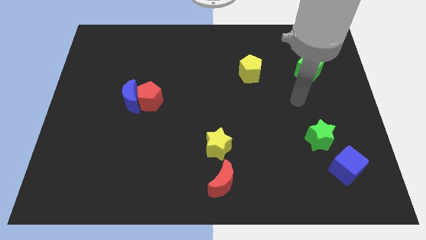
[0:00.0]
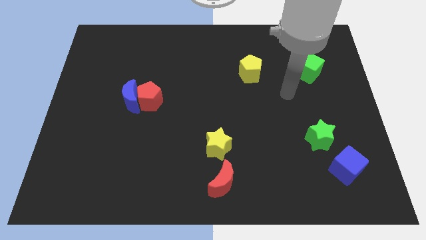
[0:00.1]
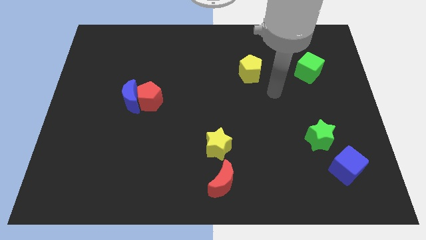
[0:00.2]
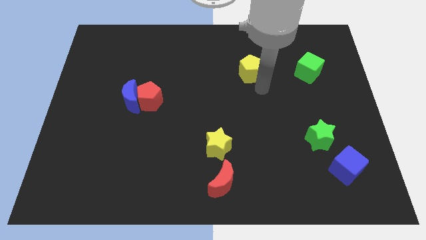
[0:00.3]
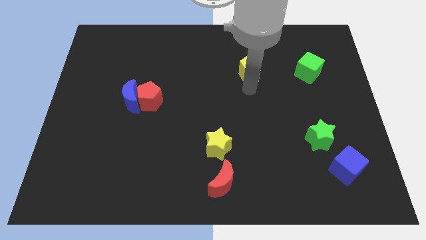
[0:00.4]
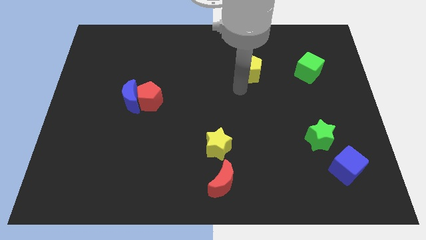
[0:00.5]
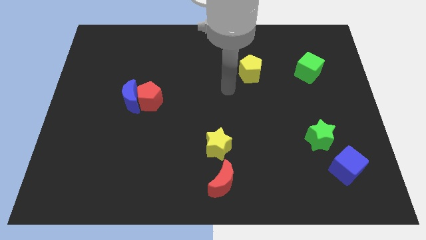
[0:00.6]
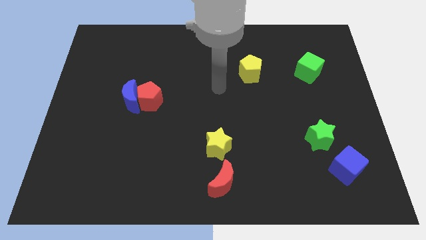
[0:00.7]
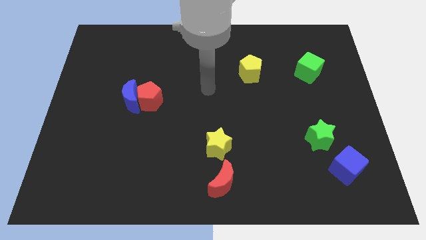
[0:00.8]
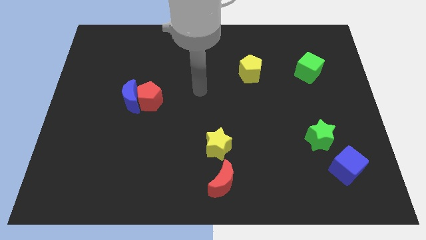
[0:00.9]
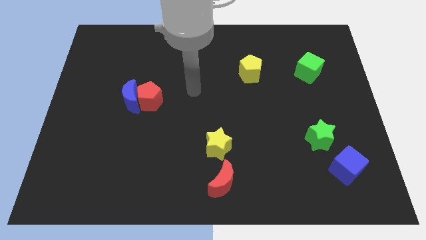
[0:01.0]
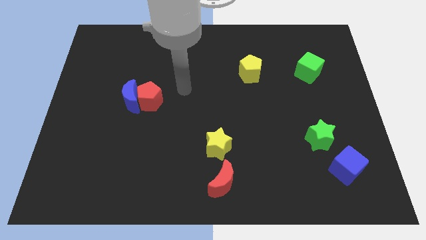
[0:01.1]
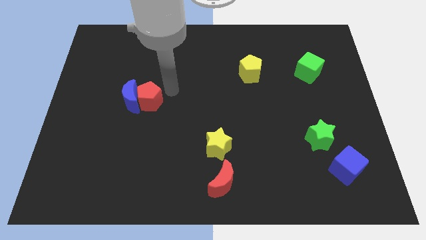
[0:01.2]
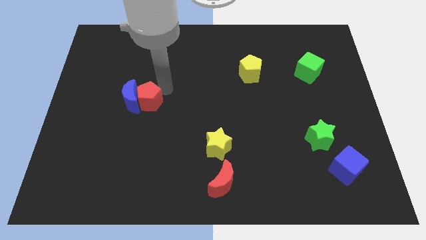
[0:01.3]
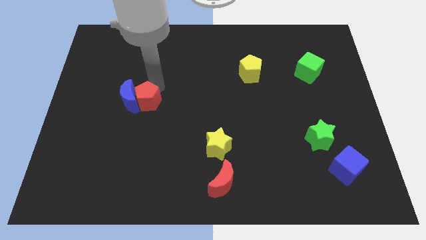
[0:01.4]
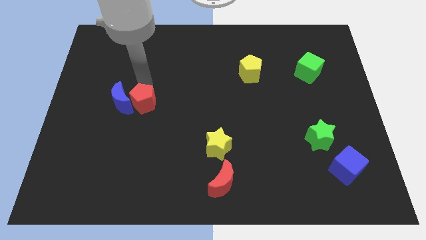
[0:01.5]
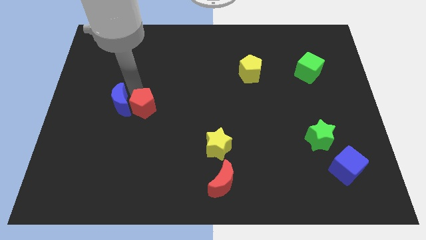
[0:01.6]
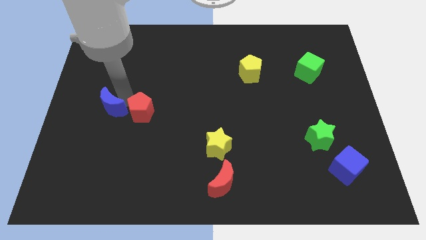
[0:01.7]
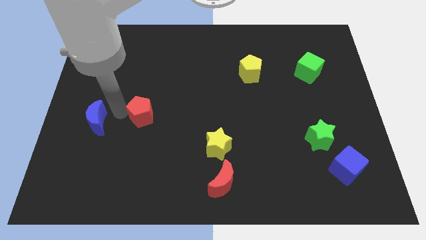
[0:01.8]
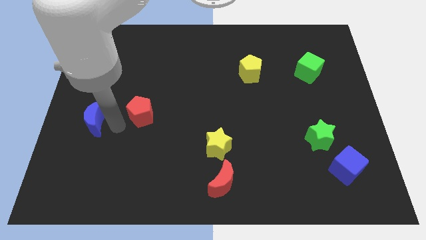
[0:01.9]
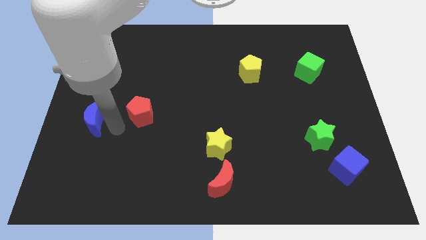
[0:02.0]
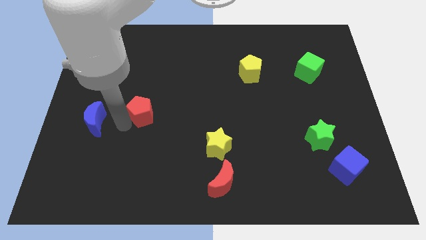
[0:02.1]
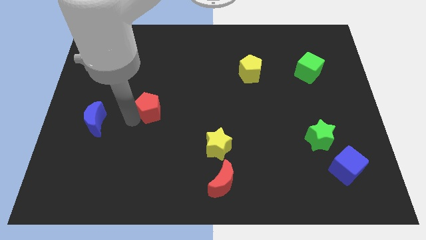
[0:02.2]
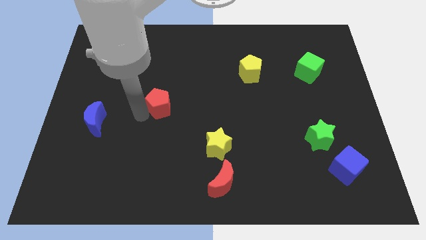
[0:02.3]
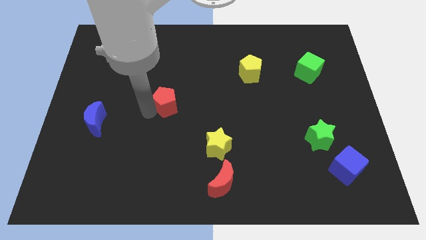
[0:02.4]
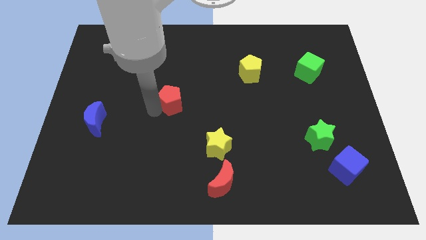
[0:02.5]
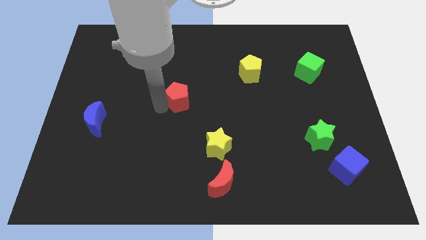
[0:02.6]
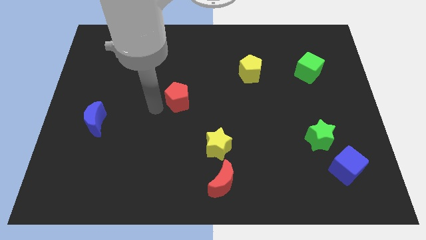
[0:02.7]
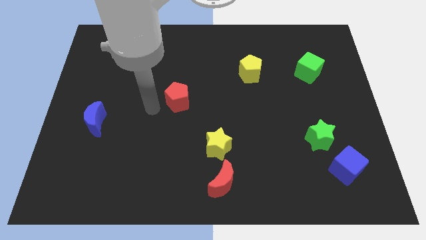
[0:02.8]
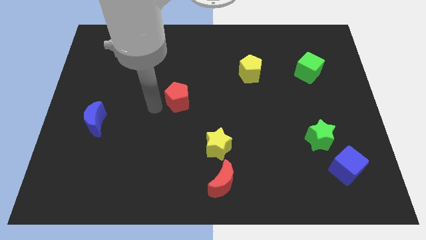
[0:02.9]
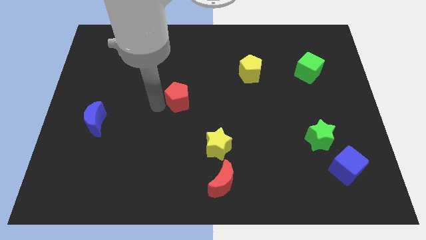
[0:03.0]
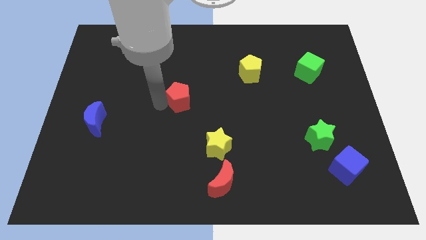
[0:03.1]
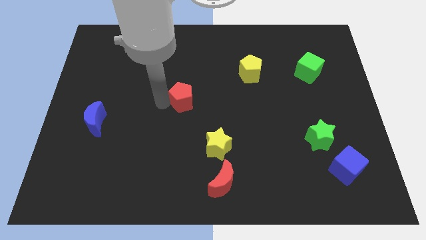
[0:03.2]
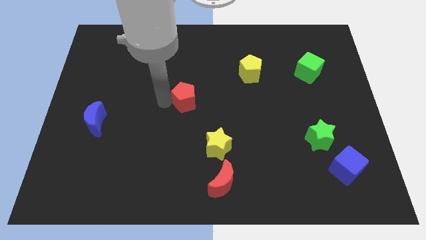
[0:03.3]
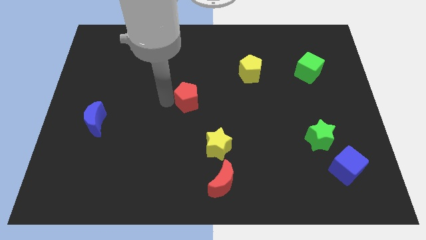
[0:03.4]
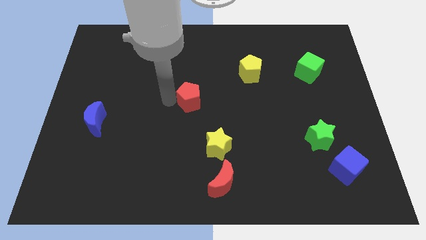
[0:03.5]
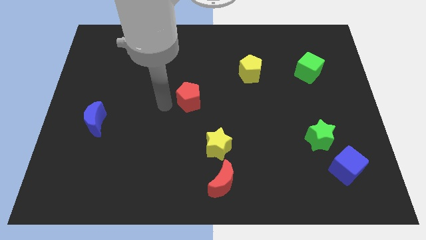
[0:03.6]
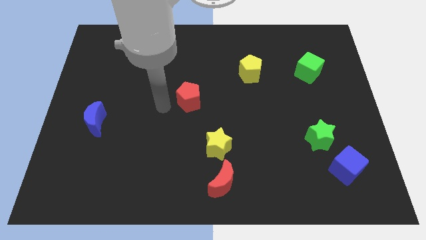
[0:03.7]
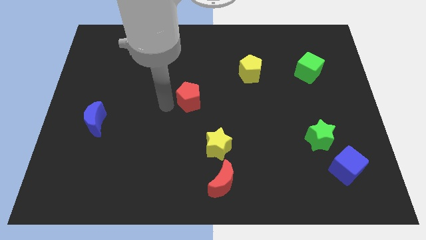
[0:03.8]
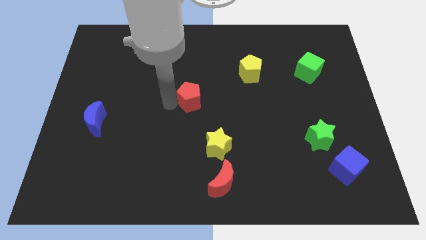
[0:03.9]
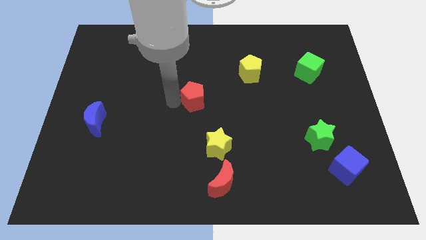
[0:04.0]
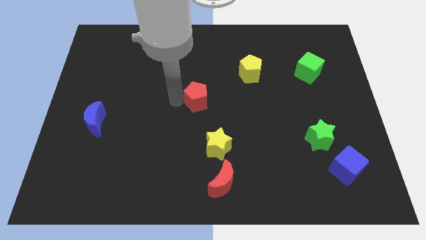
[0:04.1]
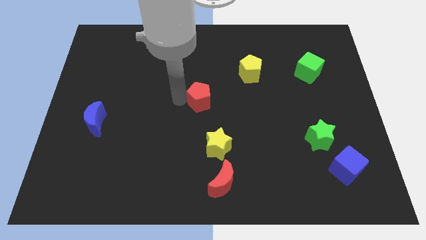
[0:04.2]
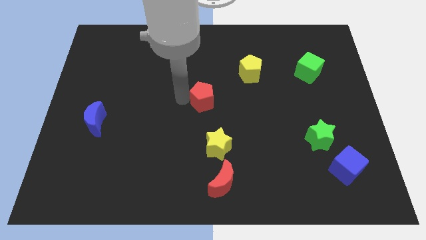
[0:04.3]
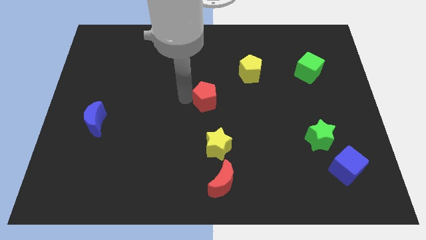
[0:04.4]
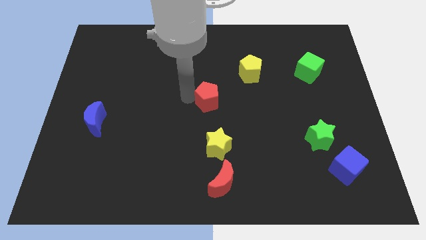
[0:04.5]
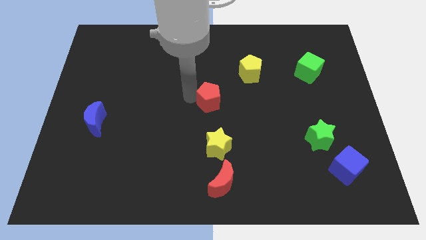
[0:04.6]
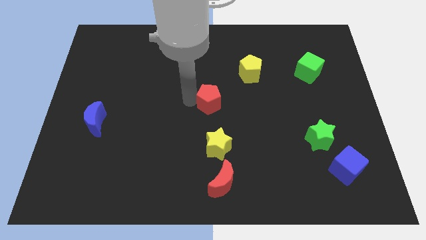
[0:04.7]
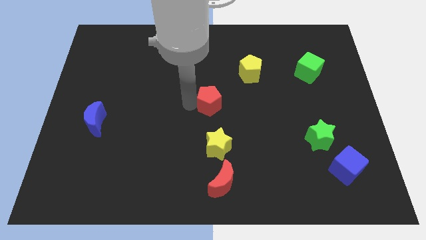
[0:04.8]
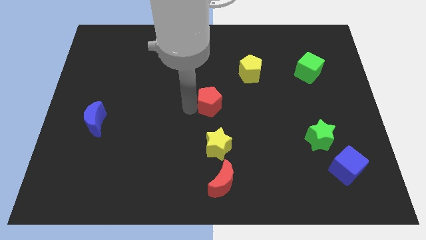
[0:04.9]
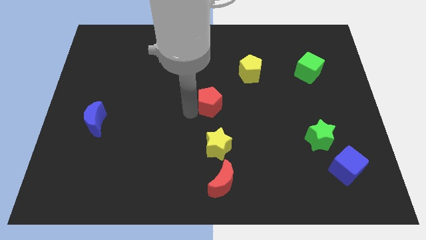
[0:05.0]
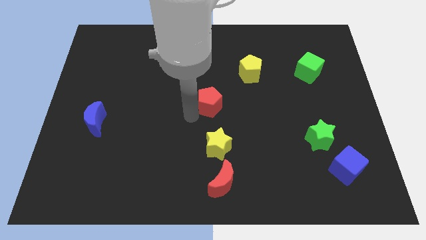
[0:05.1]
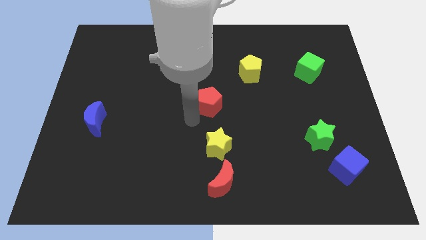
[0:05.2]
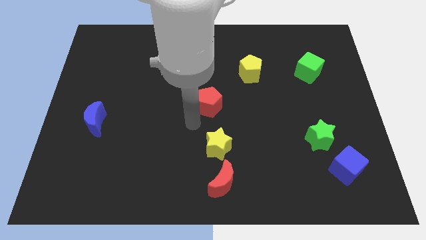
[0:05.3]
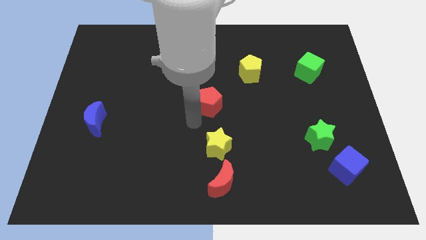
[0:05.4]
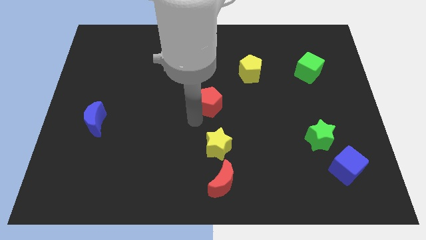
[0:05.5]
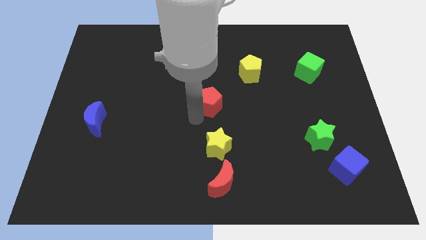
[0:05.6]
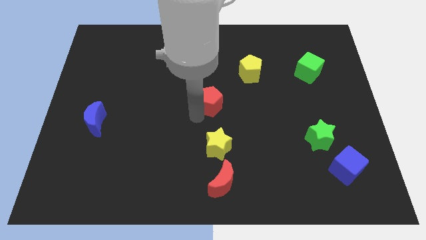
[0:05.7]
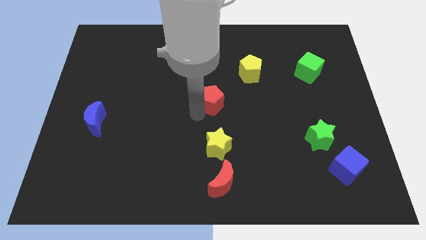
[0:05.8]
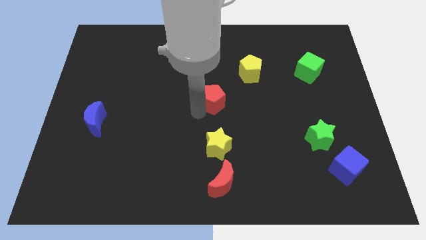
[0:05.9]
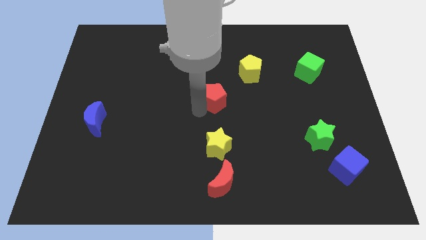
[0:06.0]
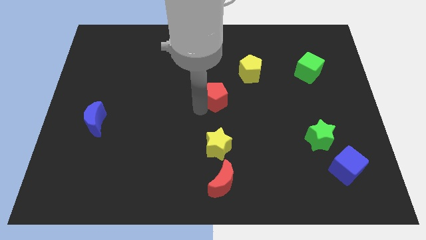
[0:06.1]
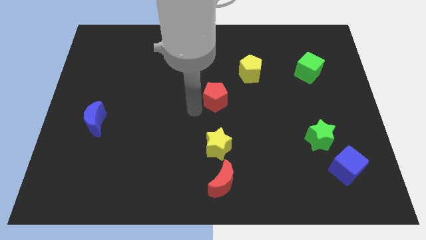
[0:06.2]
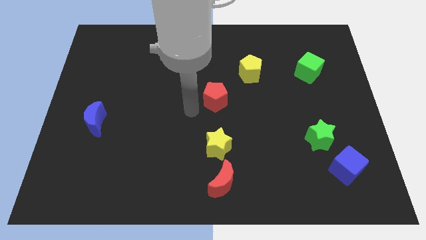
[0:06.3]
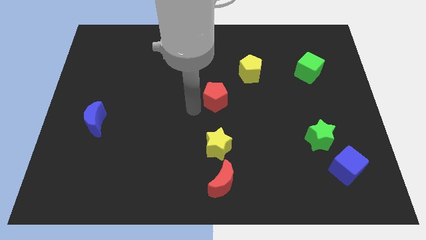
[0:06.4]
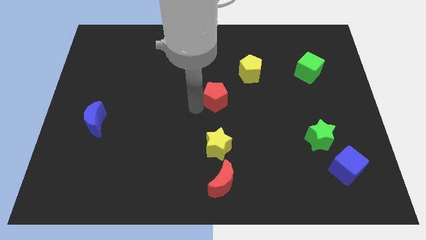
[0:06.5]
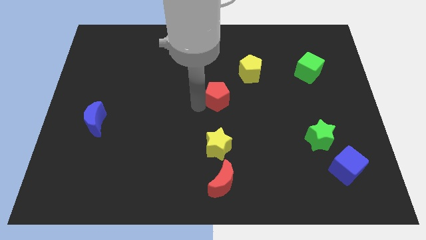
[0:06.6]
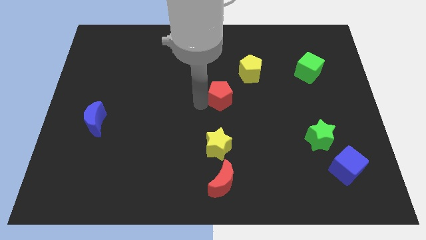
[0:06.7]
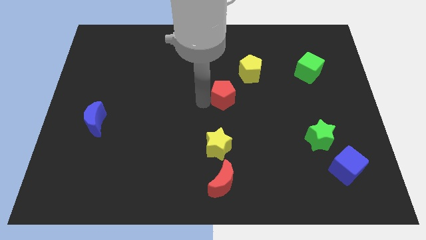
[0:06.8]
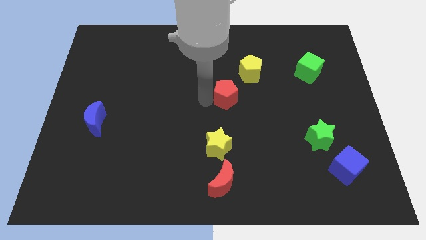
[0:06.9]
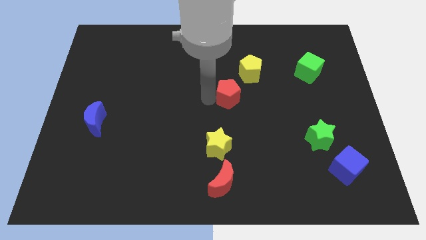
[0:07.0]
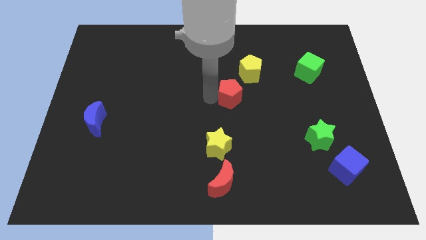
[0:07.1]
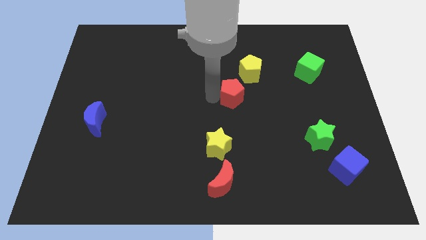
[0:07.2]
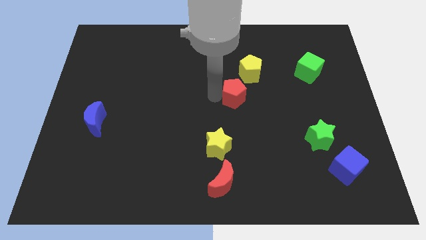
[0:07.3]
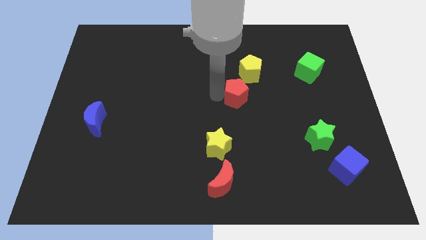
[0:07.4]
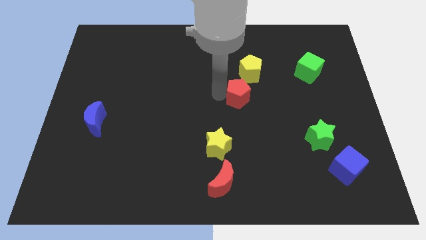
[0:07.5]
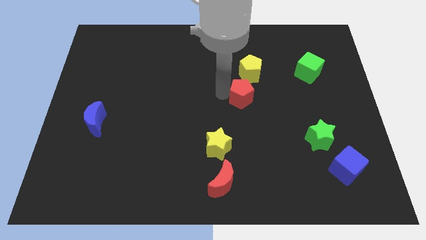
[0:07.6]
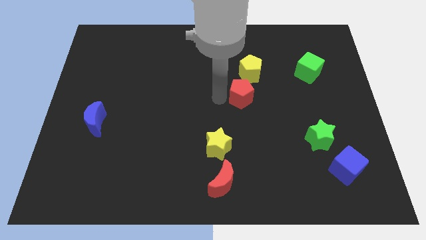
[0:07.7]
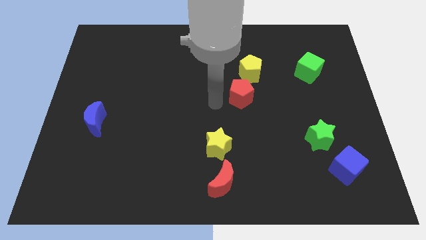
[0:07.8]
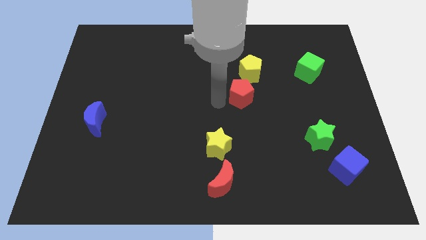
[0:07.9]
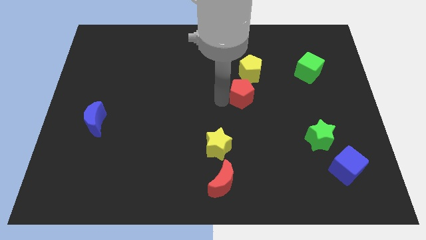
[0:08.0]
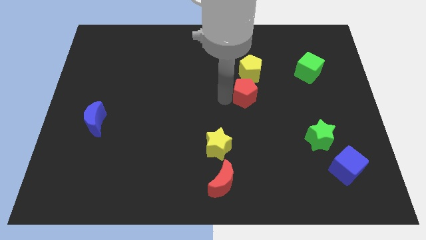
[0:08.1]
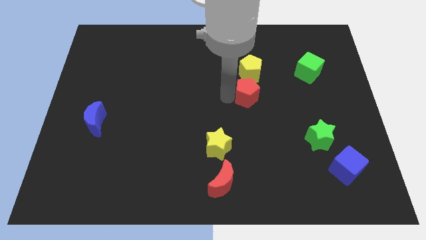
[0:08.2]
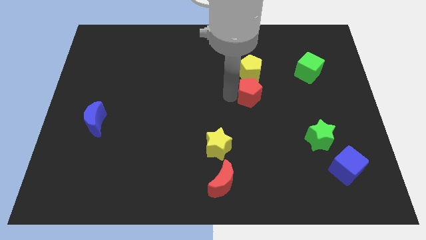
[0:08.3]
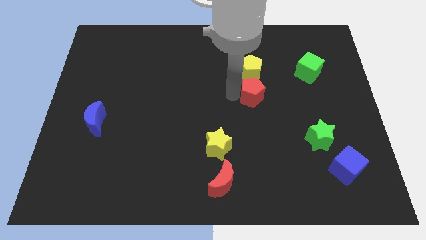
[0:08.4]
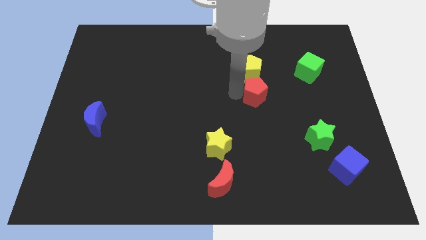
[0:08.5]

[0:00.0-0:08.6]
move the red pentagon diagonally down and to the right of the yellow pentagon
